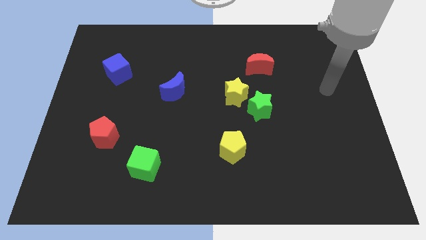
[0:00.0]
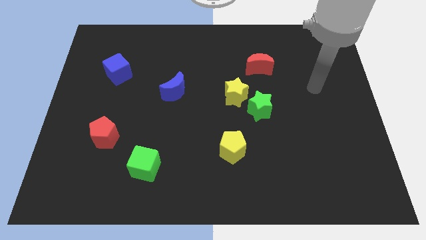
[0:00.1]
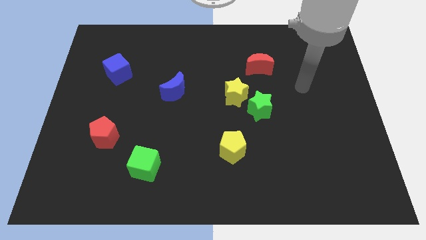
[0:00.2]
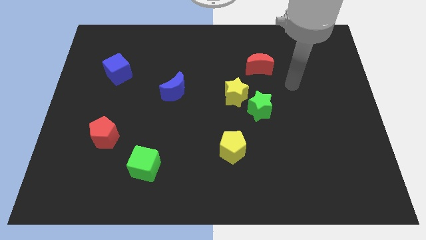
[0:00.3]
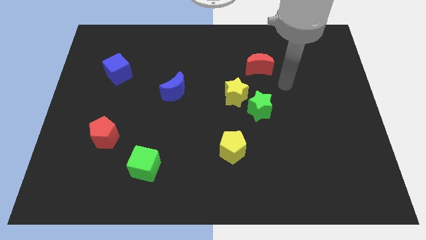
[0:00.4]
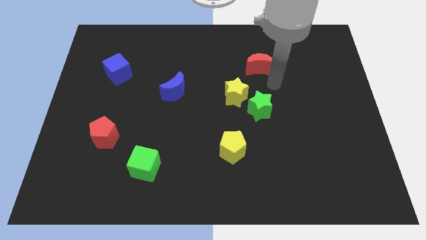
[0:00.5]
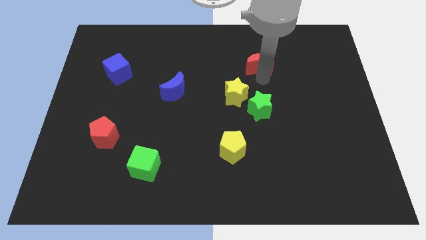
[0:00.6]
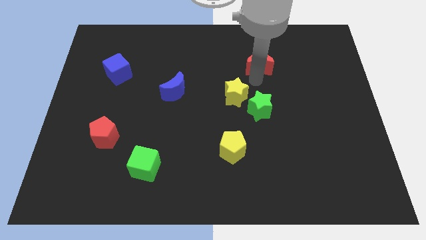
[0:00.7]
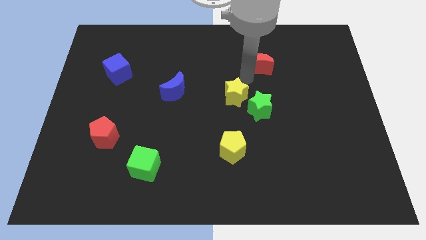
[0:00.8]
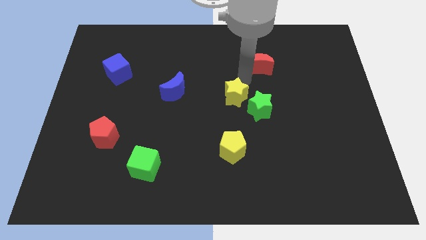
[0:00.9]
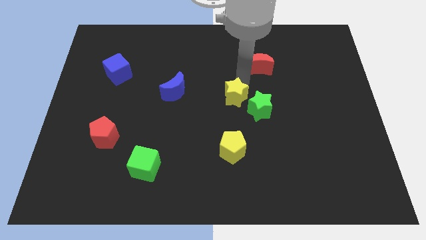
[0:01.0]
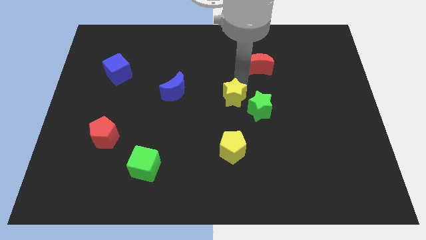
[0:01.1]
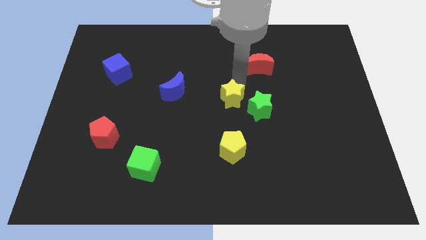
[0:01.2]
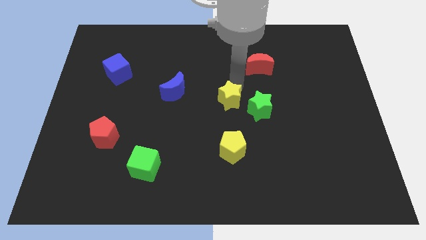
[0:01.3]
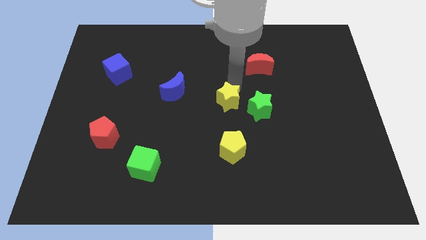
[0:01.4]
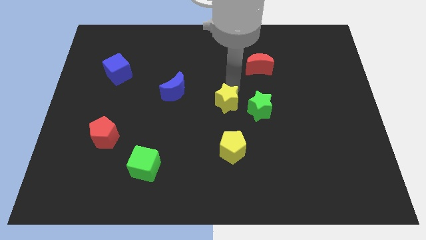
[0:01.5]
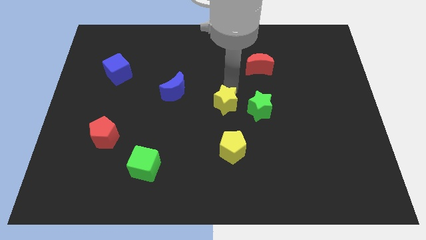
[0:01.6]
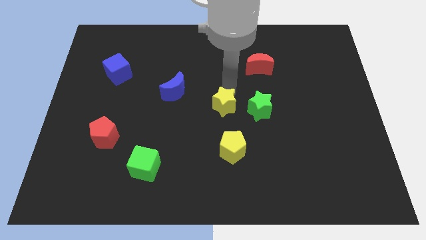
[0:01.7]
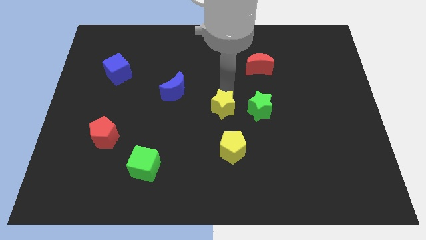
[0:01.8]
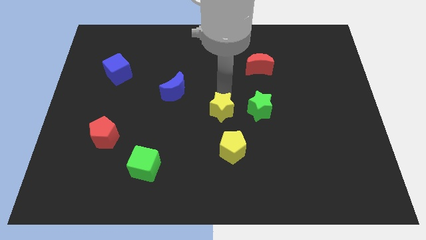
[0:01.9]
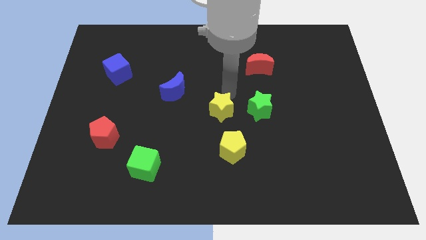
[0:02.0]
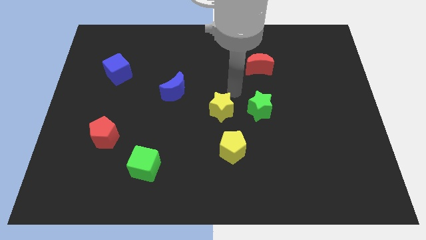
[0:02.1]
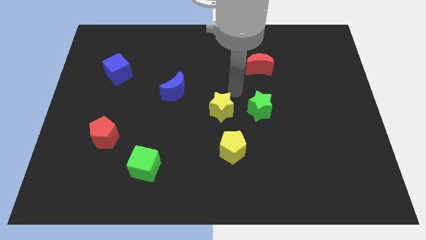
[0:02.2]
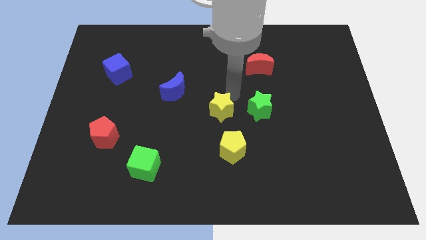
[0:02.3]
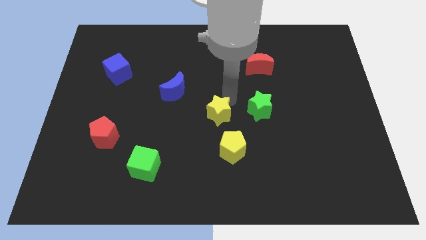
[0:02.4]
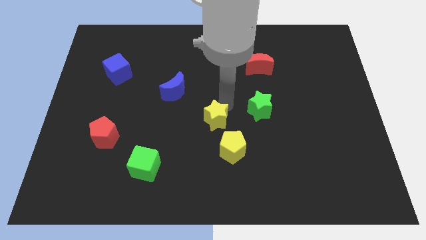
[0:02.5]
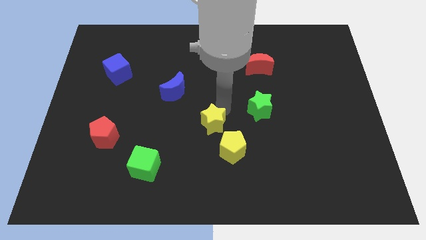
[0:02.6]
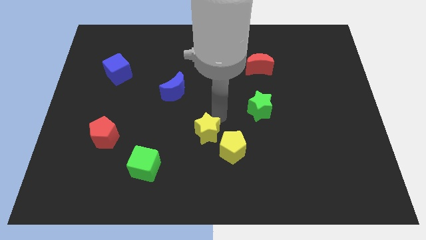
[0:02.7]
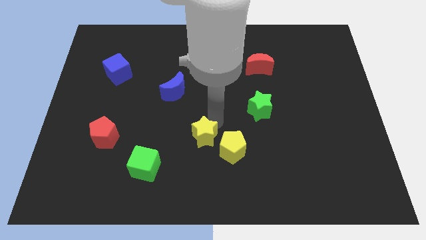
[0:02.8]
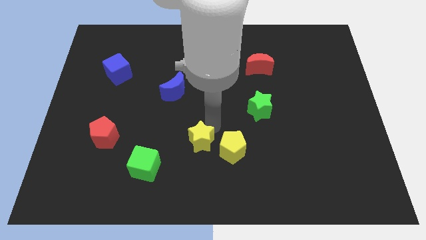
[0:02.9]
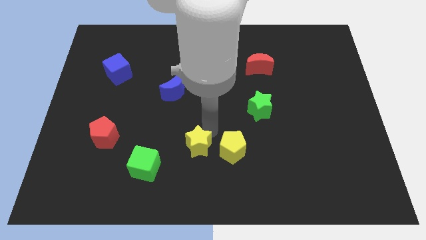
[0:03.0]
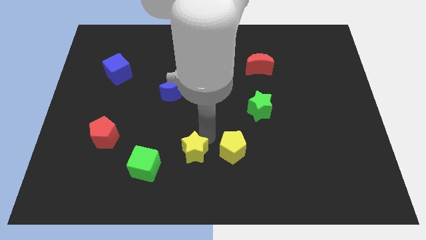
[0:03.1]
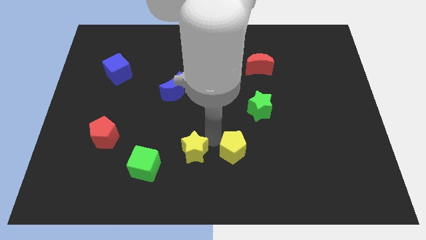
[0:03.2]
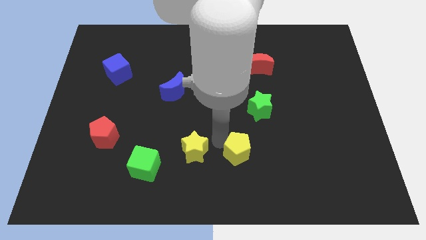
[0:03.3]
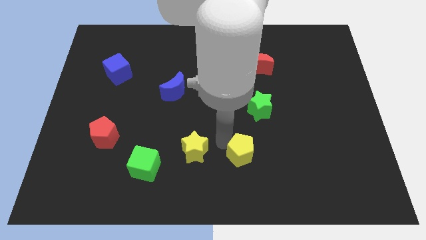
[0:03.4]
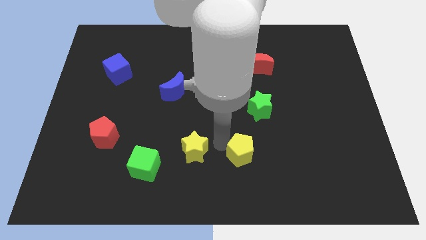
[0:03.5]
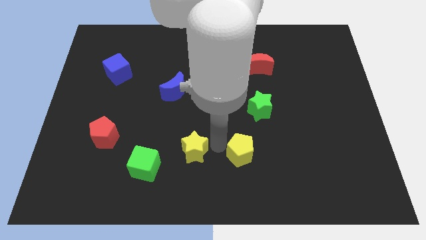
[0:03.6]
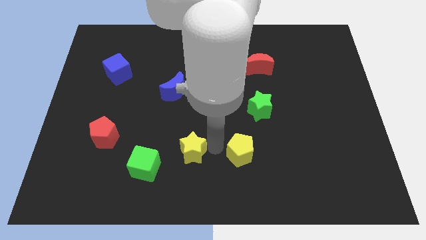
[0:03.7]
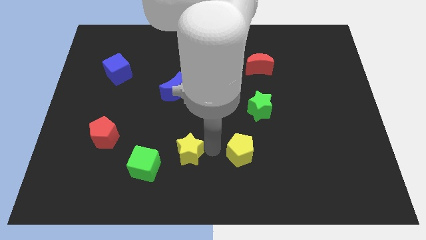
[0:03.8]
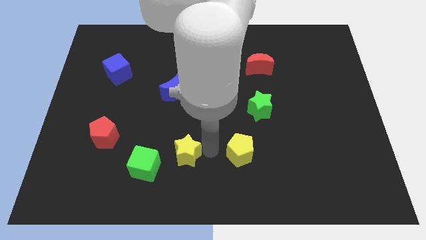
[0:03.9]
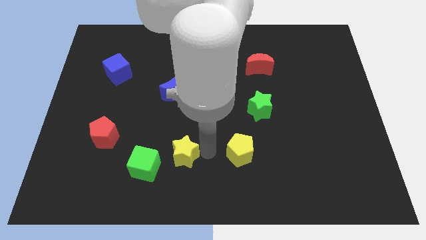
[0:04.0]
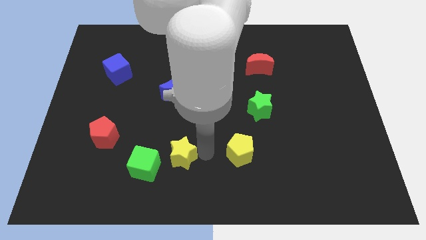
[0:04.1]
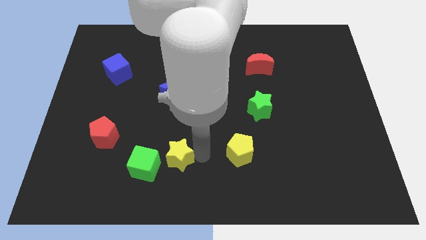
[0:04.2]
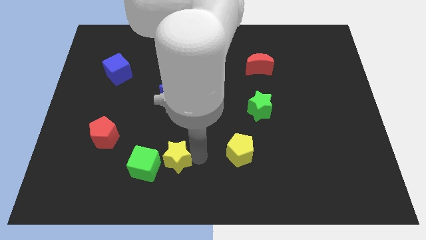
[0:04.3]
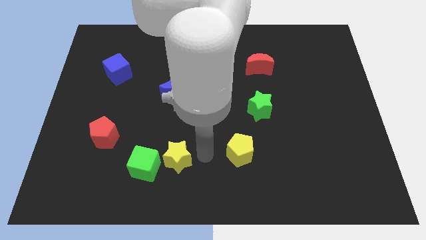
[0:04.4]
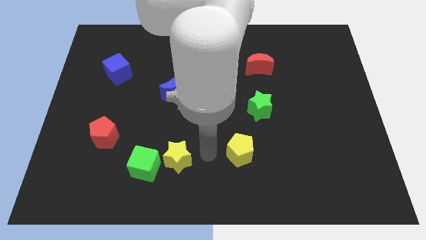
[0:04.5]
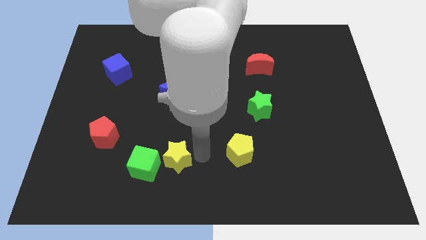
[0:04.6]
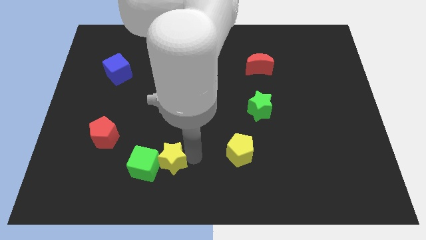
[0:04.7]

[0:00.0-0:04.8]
put the yellow star to the green cube

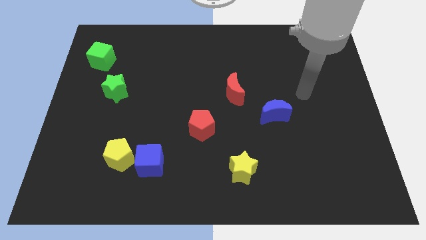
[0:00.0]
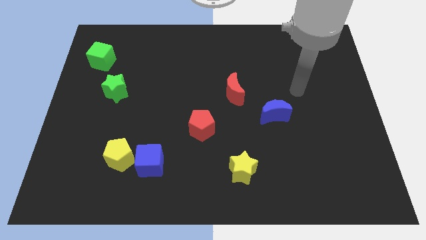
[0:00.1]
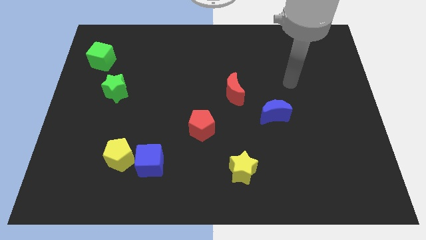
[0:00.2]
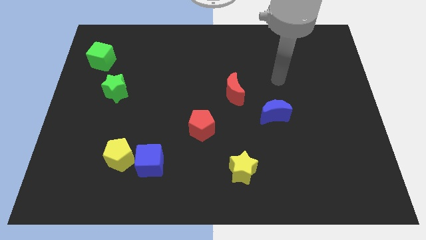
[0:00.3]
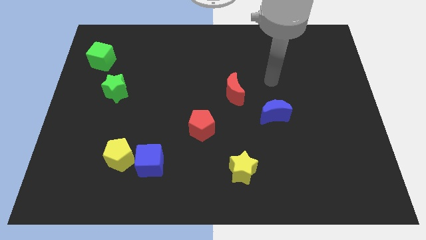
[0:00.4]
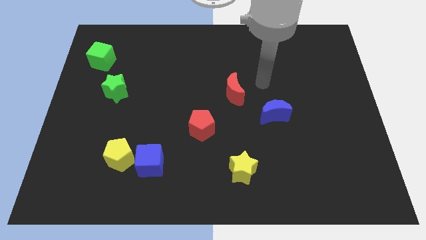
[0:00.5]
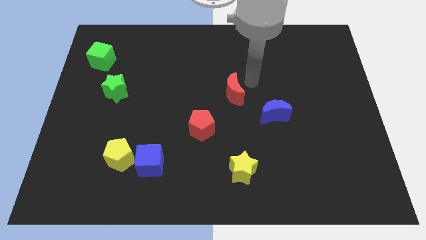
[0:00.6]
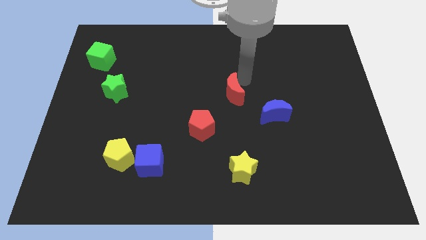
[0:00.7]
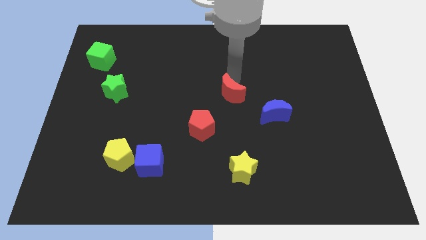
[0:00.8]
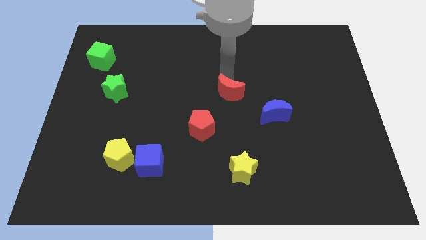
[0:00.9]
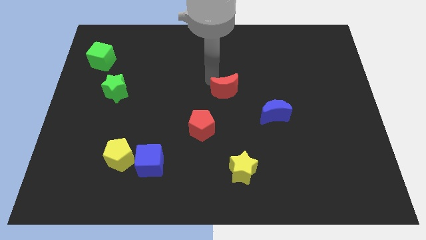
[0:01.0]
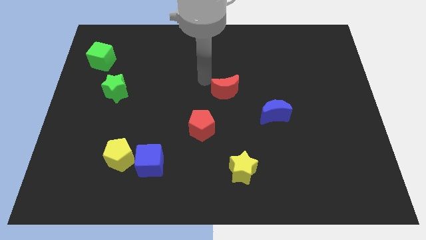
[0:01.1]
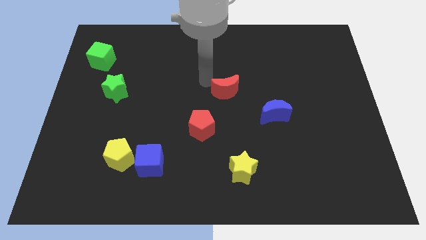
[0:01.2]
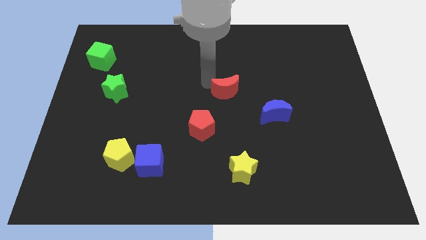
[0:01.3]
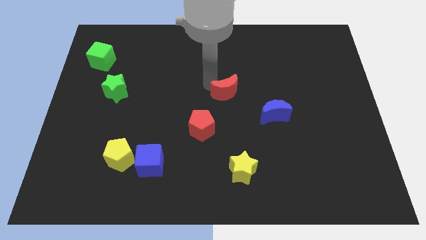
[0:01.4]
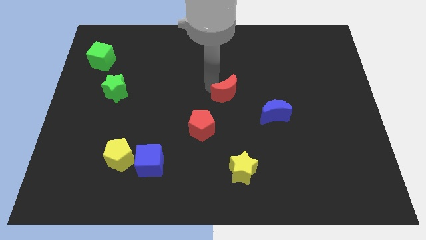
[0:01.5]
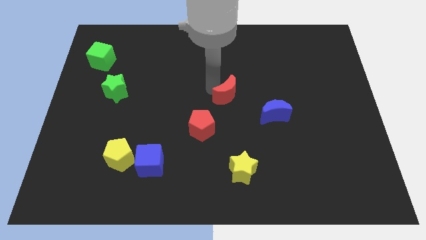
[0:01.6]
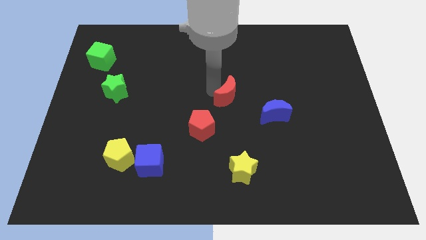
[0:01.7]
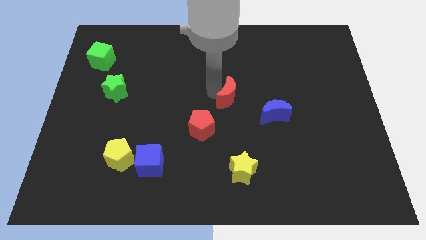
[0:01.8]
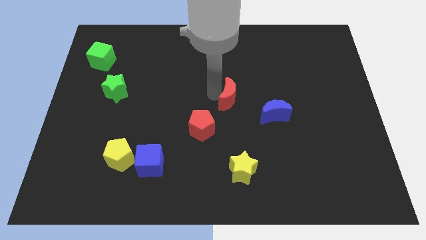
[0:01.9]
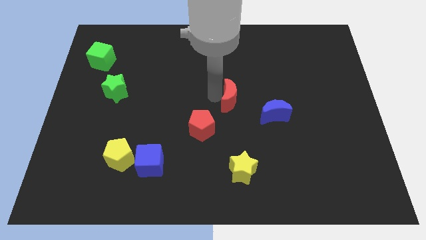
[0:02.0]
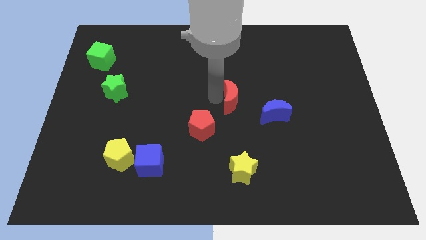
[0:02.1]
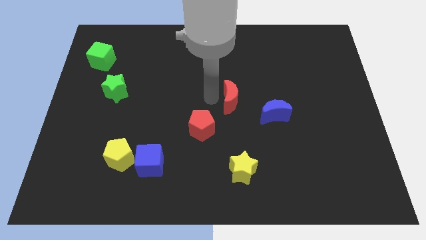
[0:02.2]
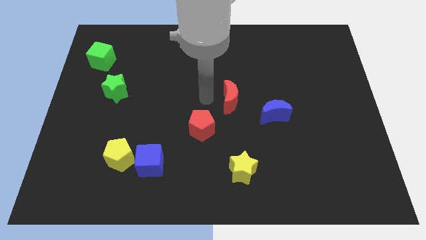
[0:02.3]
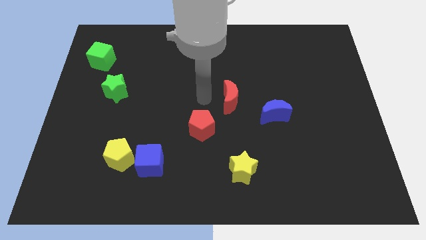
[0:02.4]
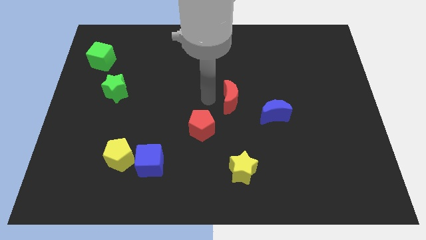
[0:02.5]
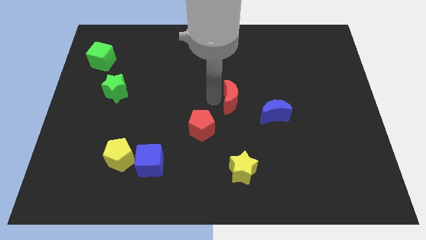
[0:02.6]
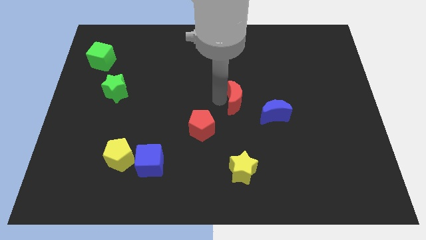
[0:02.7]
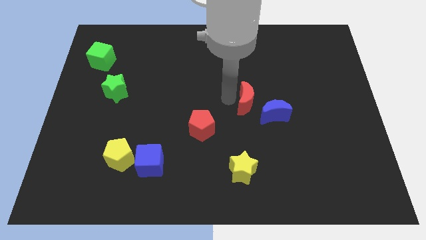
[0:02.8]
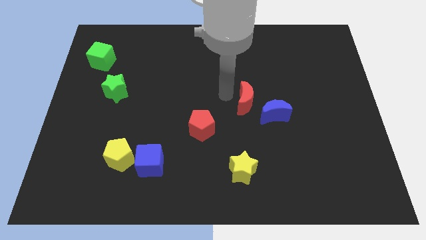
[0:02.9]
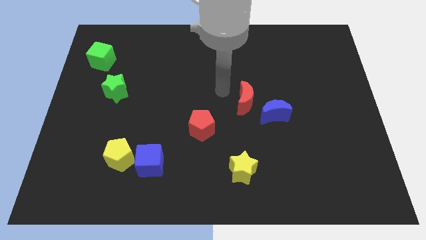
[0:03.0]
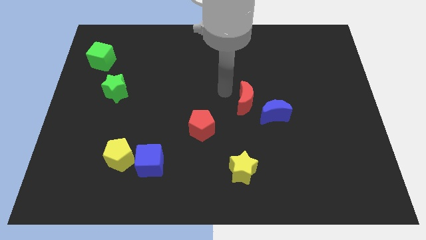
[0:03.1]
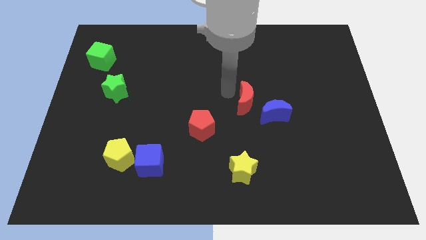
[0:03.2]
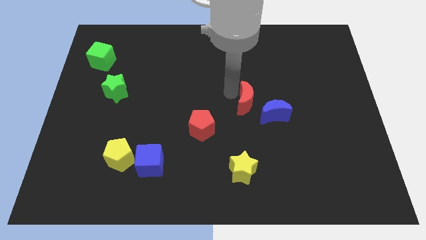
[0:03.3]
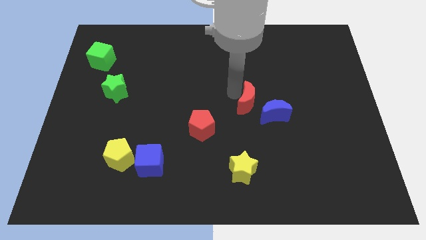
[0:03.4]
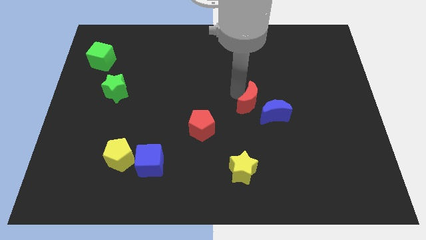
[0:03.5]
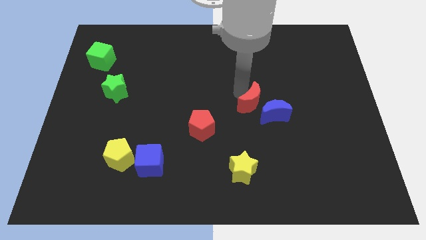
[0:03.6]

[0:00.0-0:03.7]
slide the red moon to the blue moon
